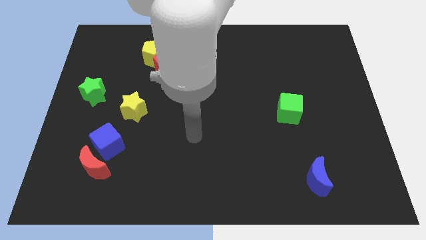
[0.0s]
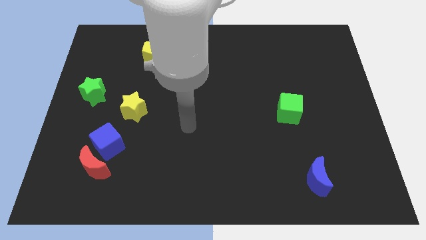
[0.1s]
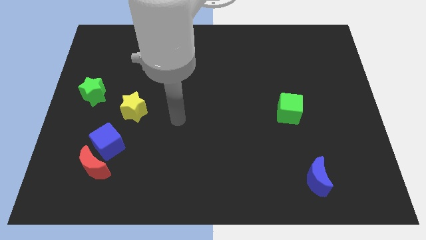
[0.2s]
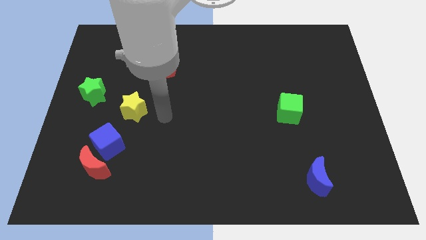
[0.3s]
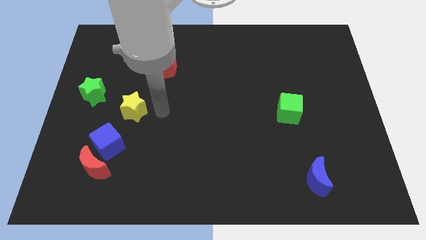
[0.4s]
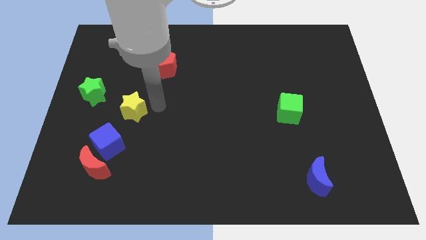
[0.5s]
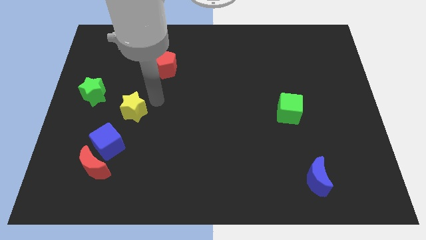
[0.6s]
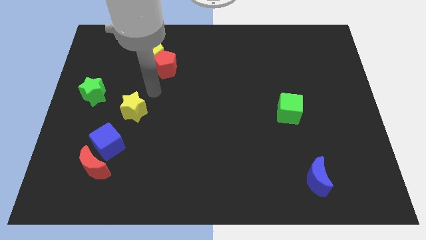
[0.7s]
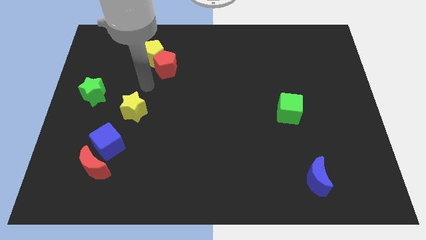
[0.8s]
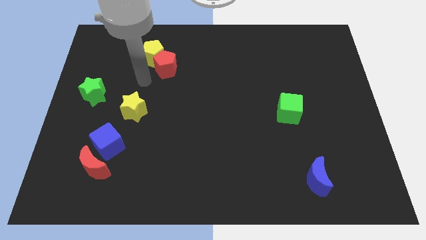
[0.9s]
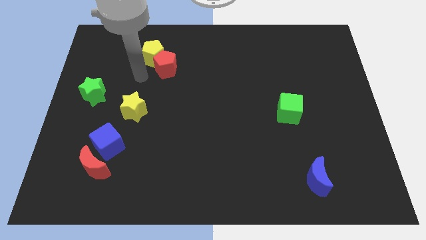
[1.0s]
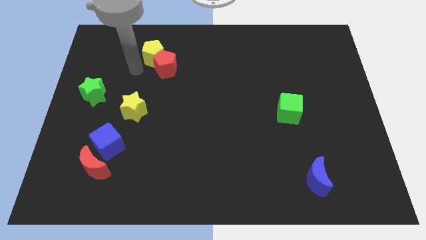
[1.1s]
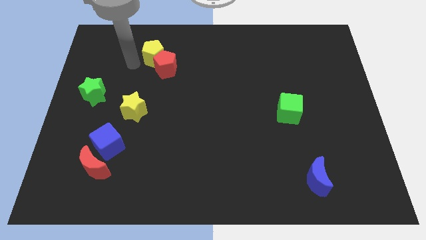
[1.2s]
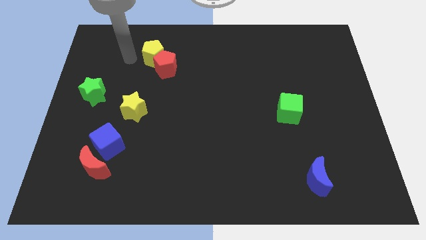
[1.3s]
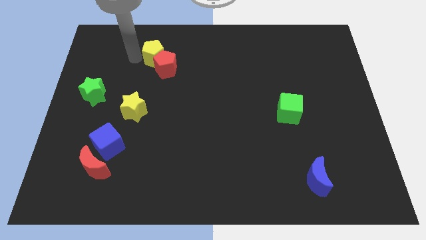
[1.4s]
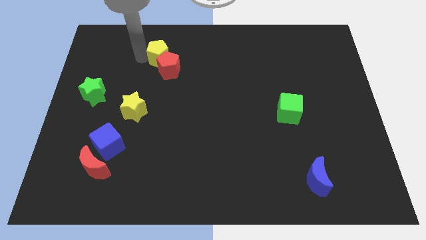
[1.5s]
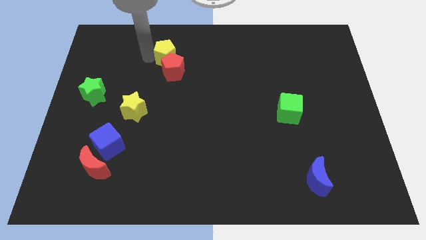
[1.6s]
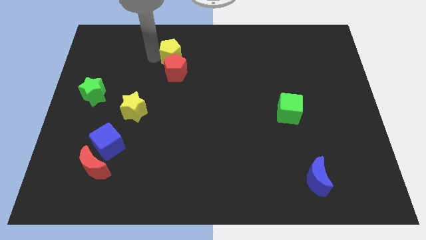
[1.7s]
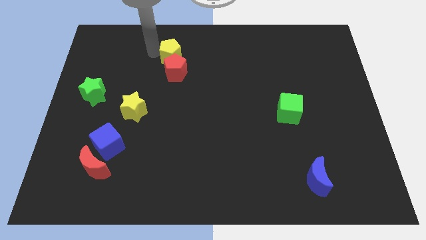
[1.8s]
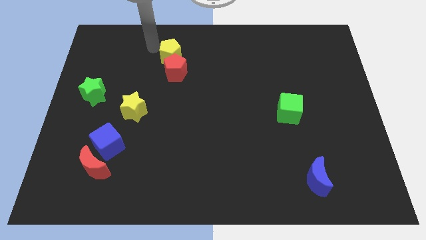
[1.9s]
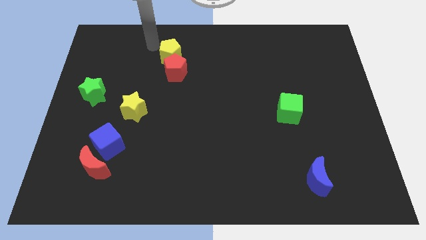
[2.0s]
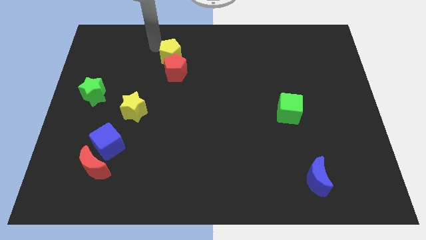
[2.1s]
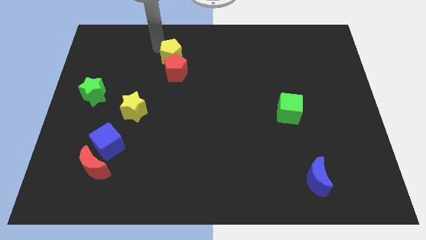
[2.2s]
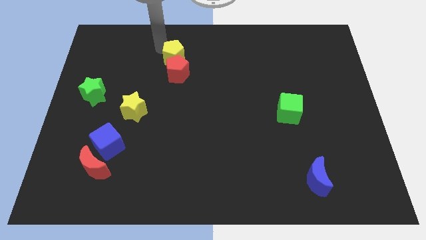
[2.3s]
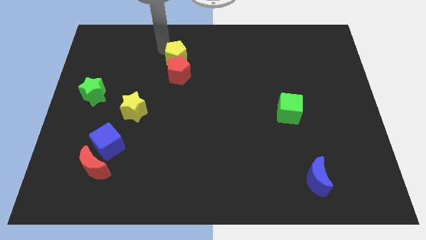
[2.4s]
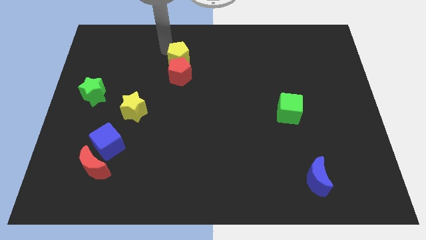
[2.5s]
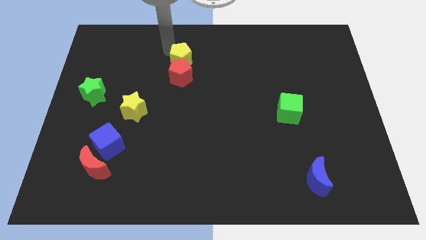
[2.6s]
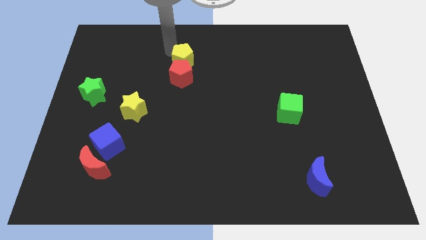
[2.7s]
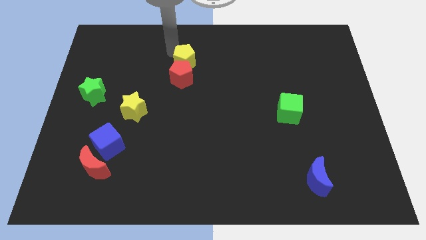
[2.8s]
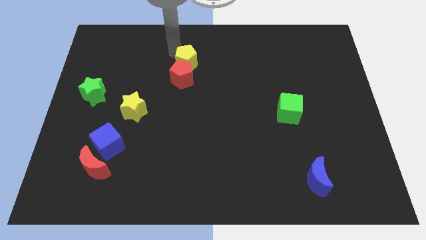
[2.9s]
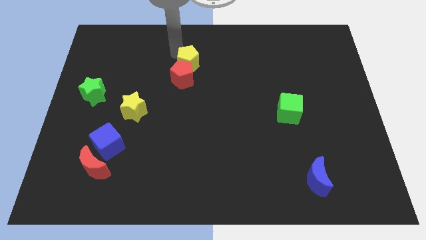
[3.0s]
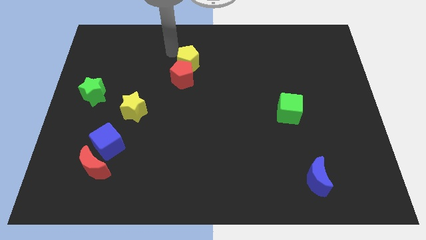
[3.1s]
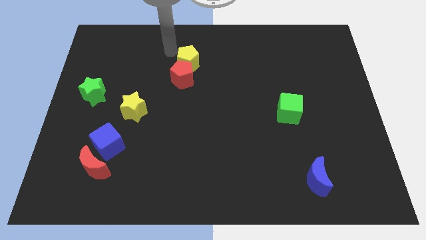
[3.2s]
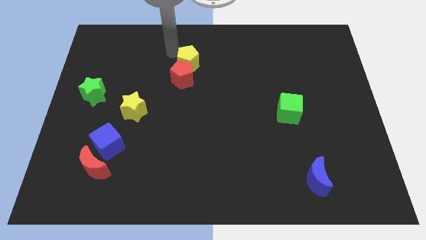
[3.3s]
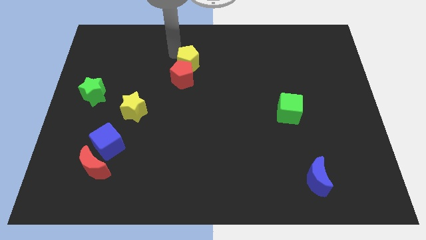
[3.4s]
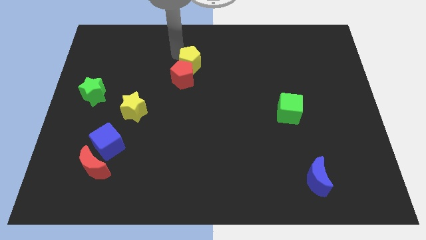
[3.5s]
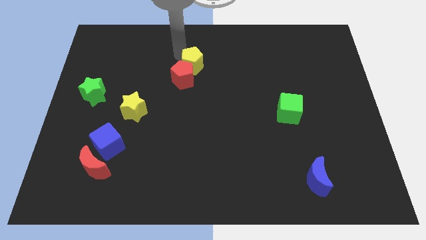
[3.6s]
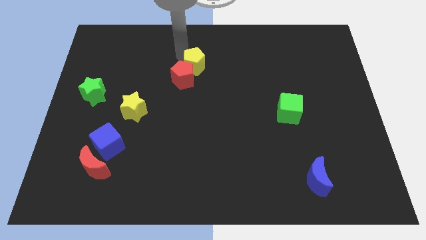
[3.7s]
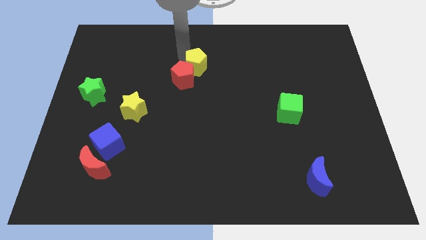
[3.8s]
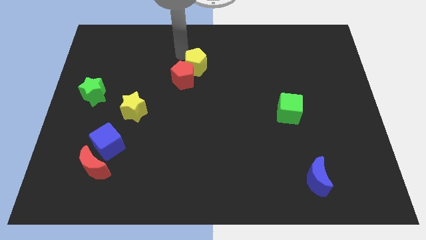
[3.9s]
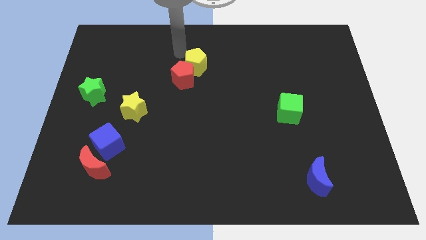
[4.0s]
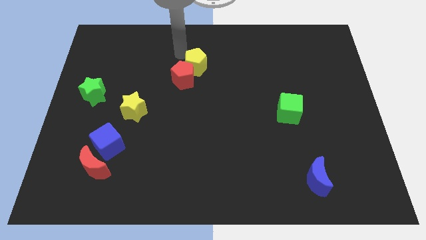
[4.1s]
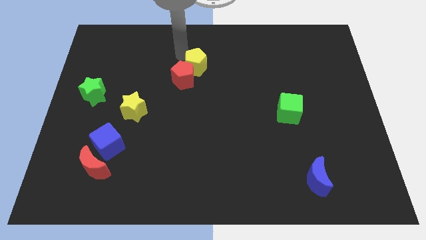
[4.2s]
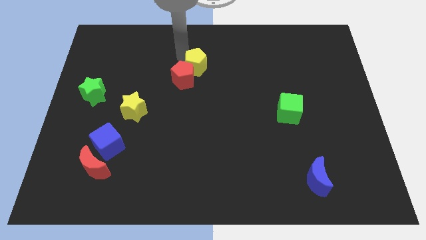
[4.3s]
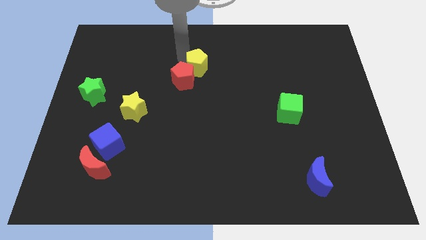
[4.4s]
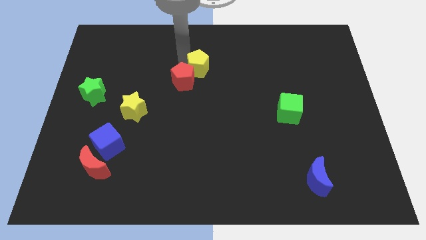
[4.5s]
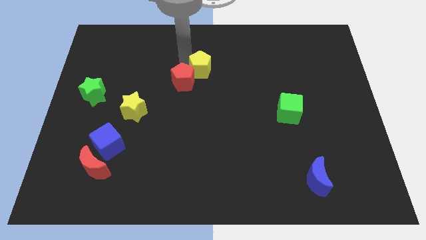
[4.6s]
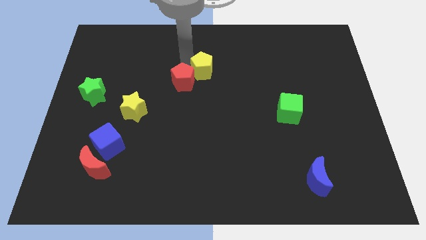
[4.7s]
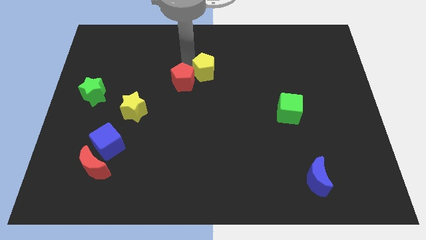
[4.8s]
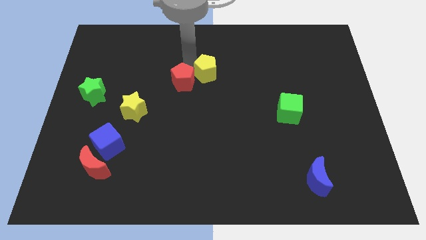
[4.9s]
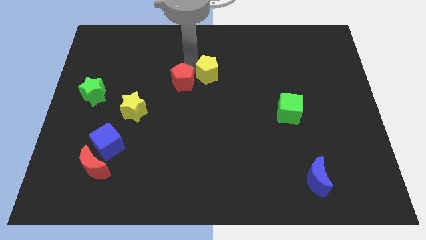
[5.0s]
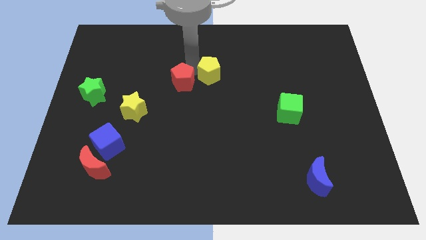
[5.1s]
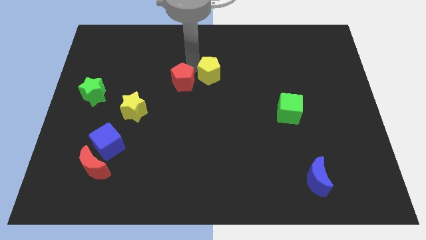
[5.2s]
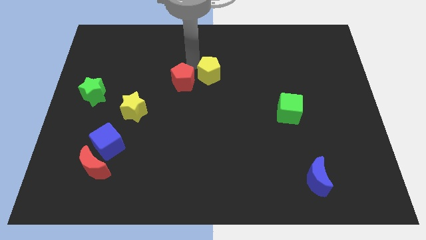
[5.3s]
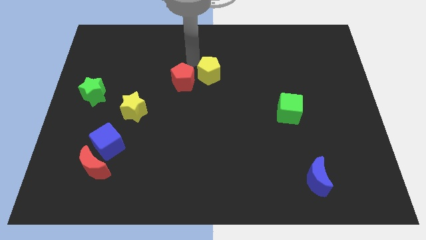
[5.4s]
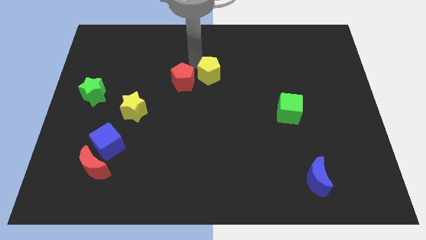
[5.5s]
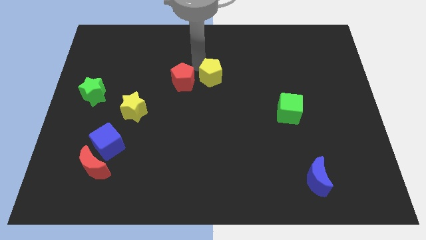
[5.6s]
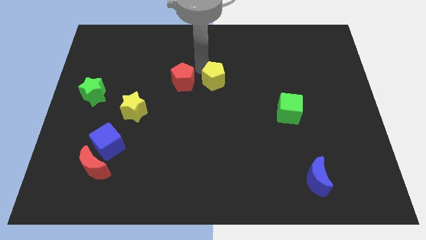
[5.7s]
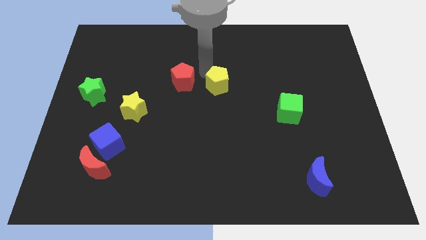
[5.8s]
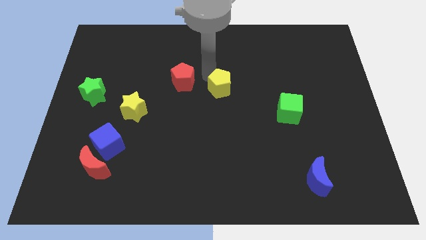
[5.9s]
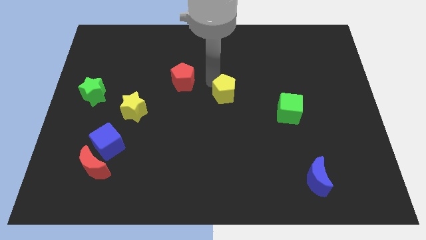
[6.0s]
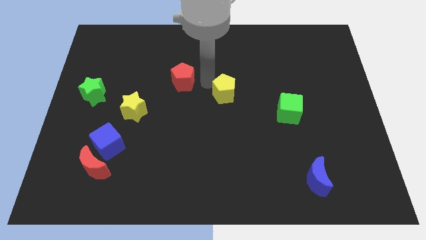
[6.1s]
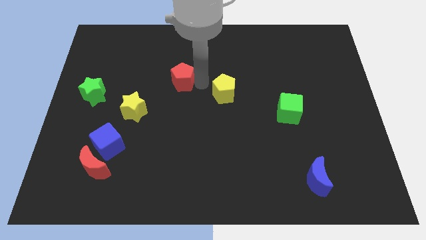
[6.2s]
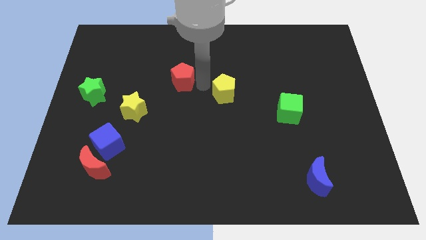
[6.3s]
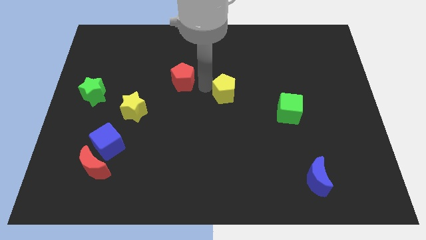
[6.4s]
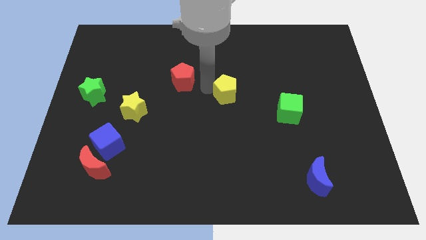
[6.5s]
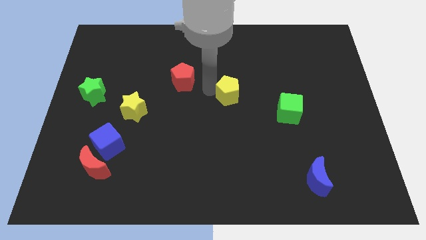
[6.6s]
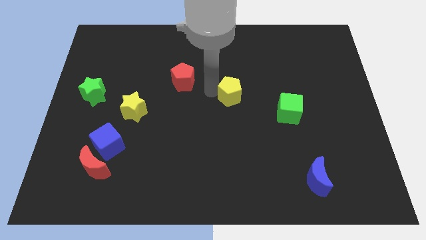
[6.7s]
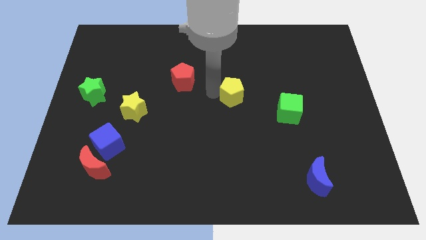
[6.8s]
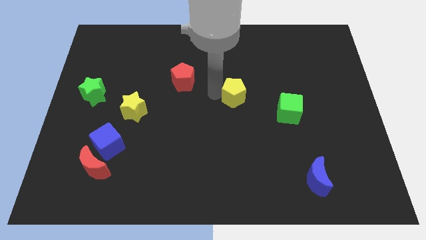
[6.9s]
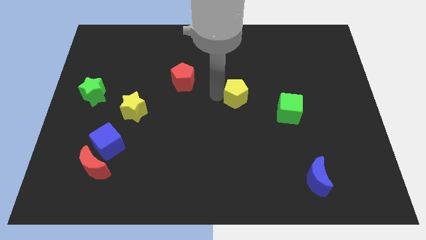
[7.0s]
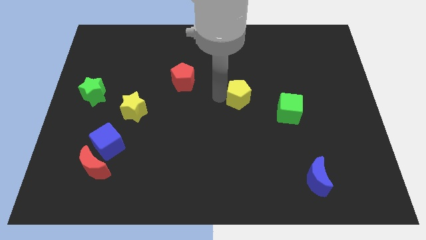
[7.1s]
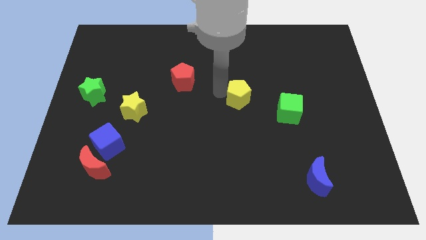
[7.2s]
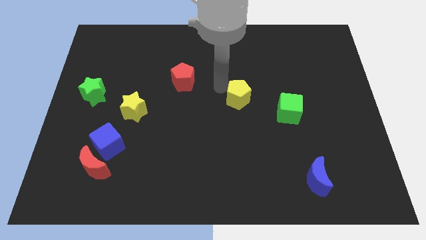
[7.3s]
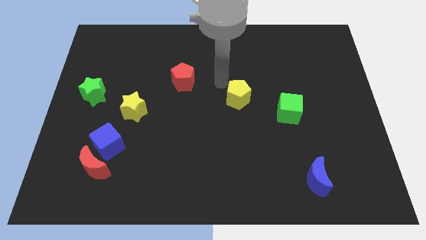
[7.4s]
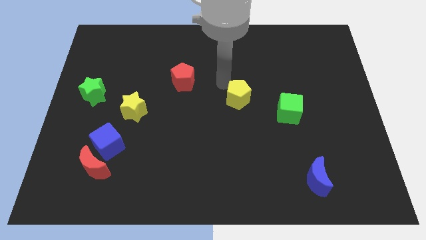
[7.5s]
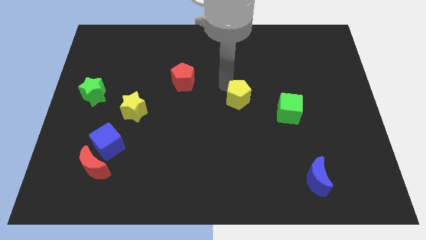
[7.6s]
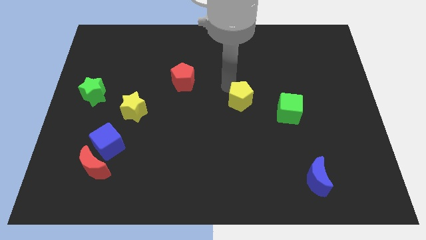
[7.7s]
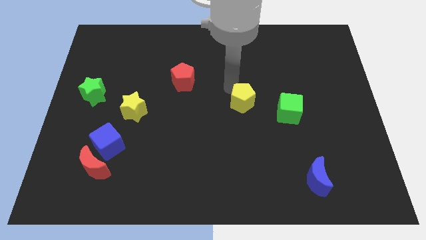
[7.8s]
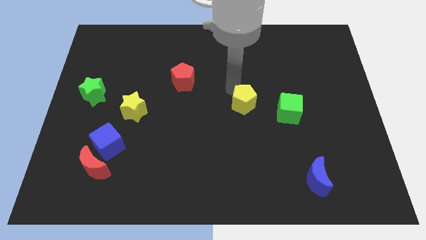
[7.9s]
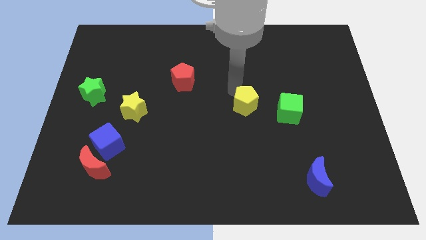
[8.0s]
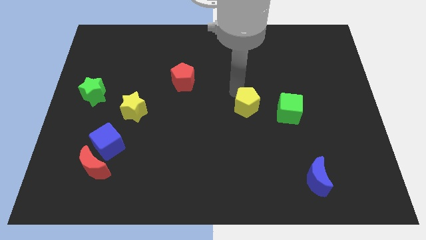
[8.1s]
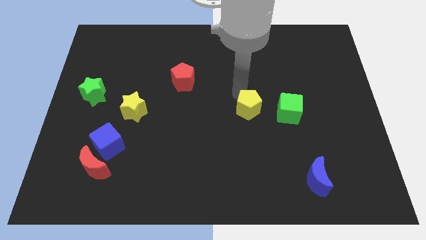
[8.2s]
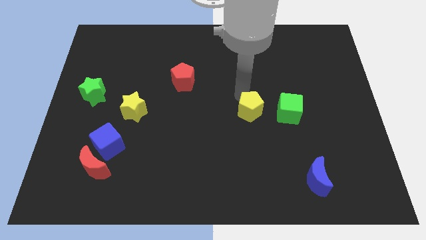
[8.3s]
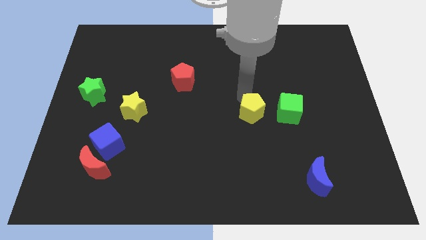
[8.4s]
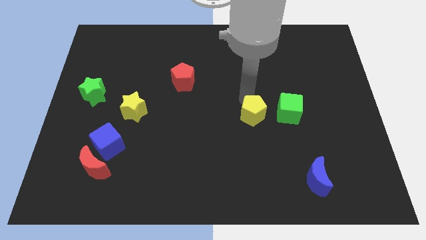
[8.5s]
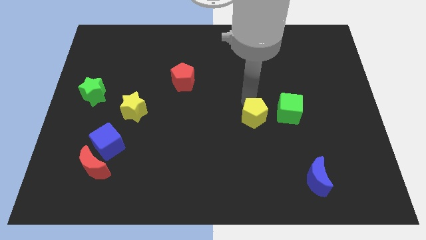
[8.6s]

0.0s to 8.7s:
slide the yellow pentagon diagonally down and to the left of the green cube
